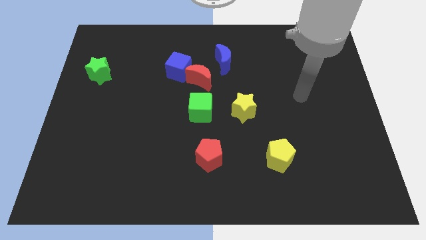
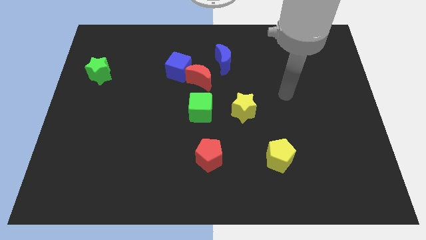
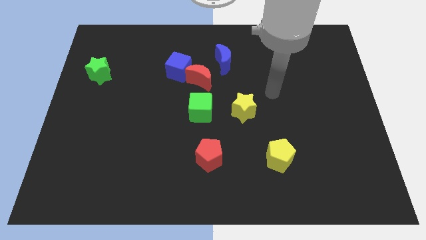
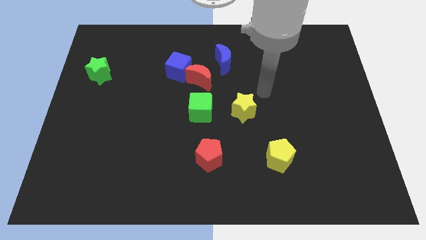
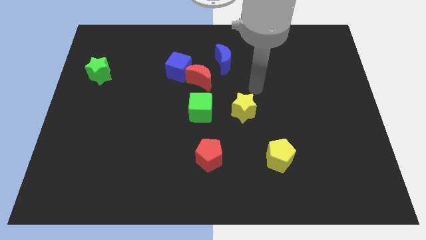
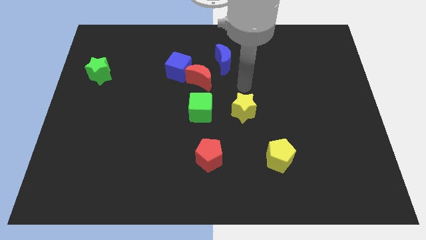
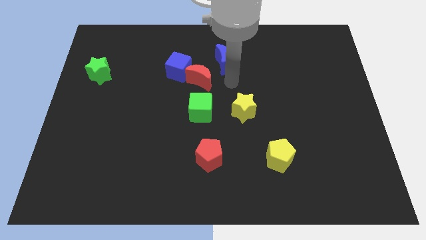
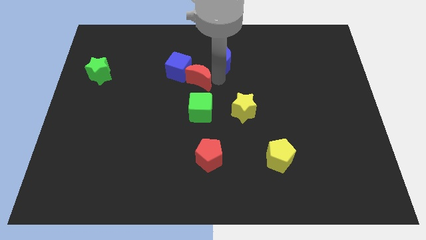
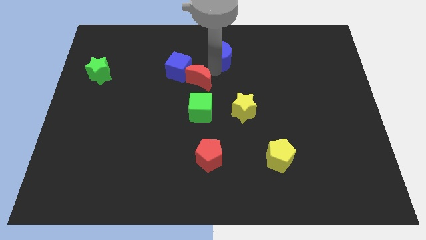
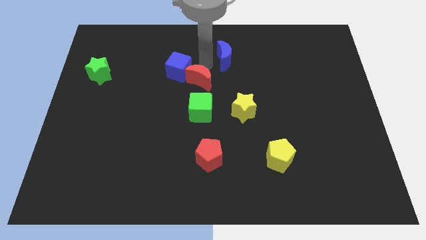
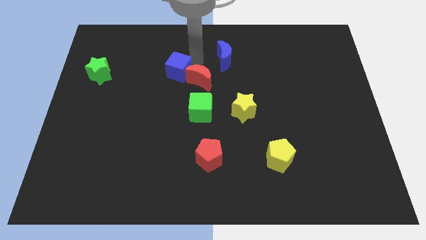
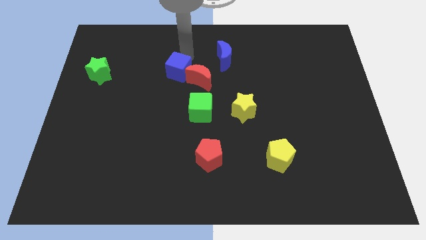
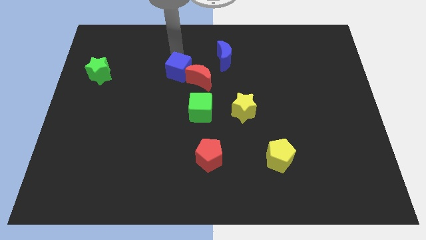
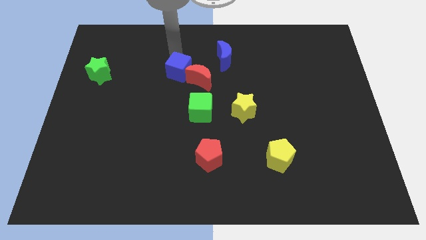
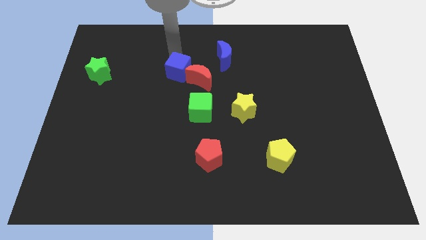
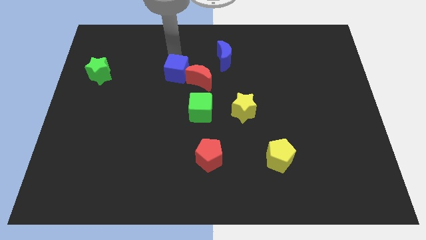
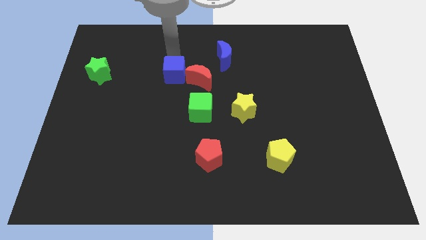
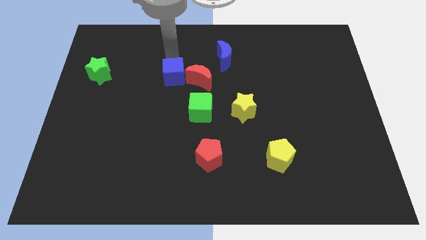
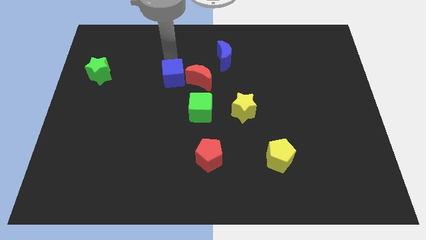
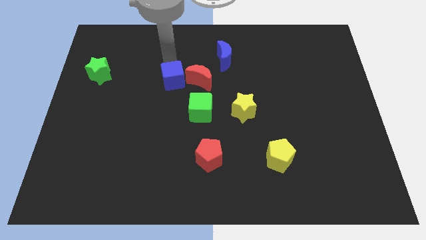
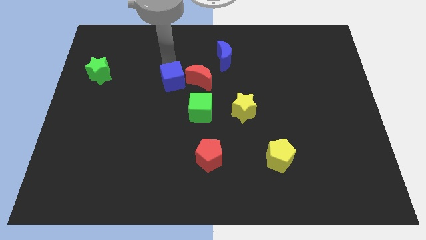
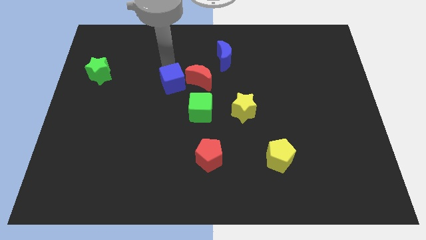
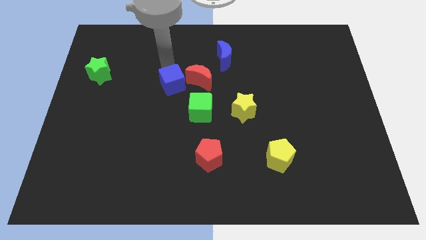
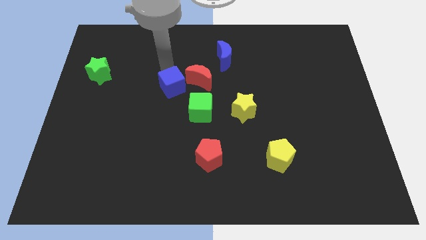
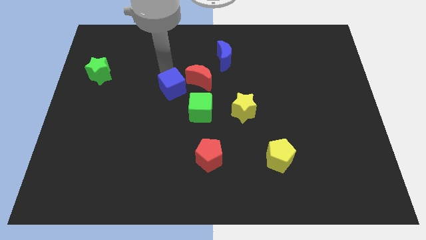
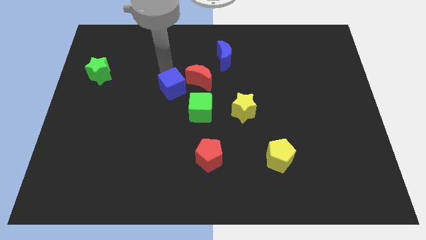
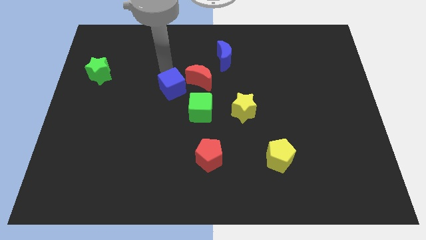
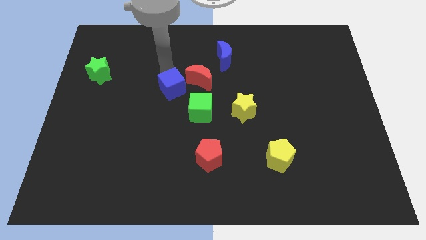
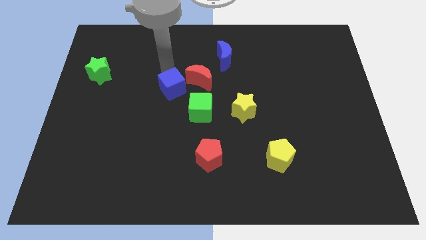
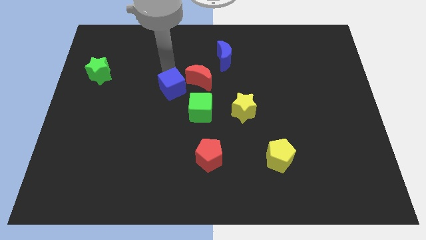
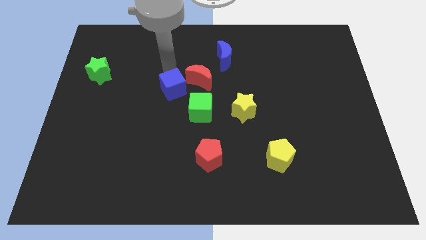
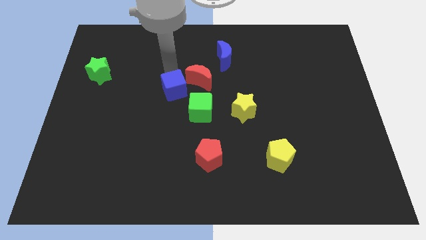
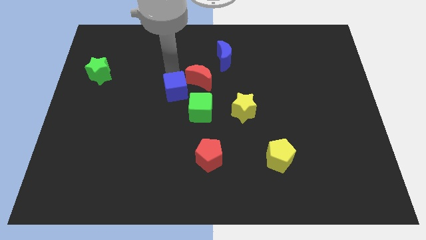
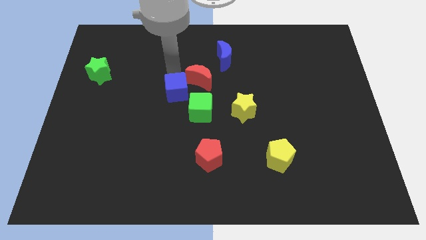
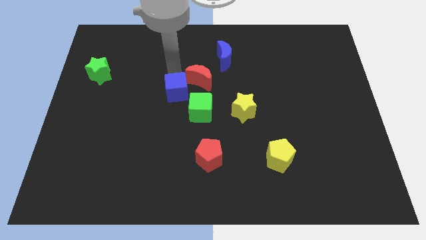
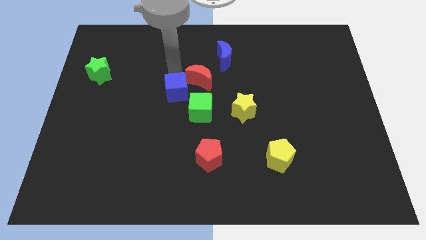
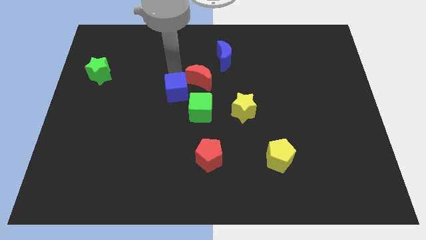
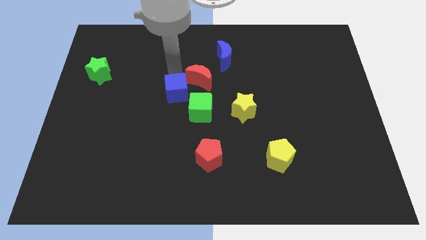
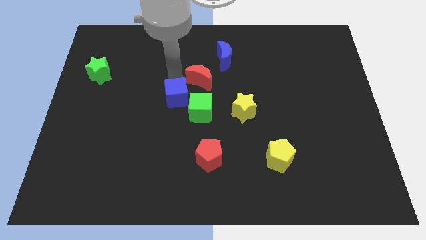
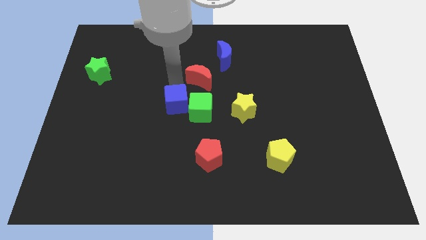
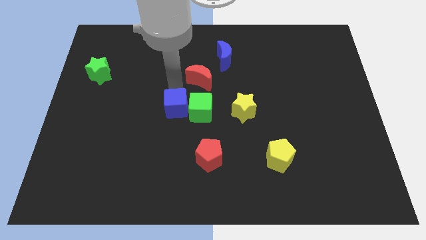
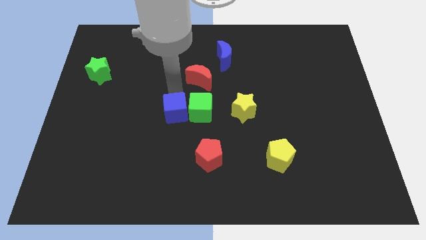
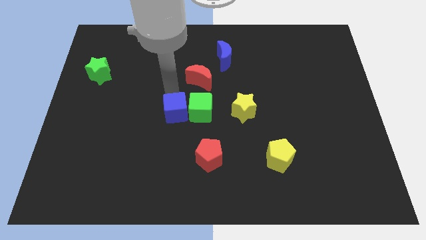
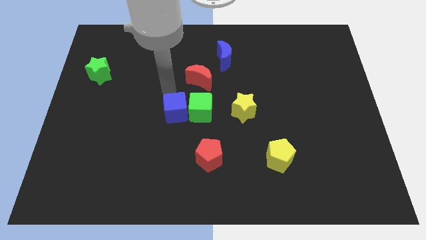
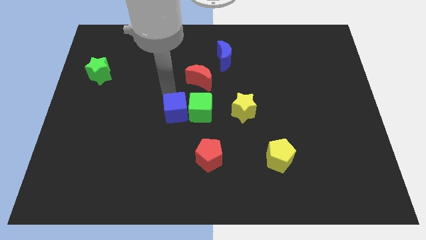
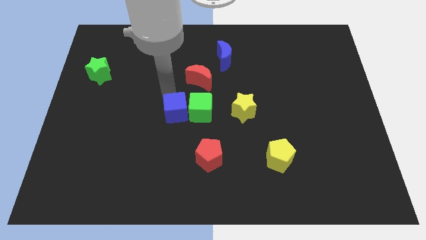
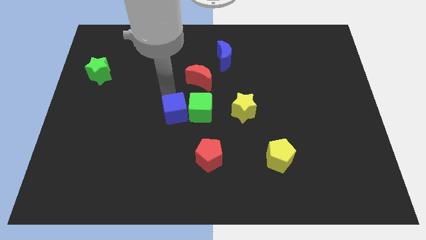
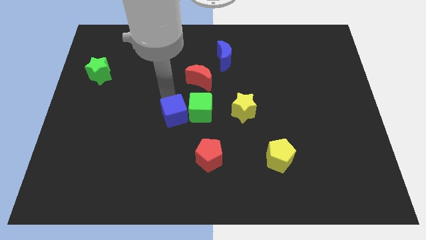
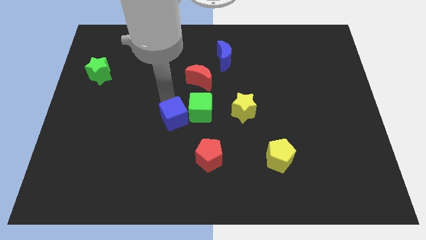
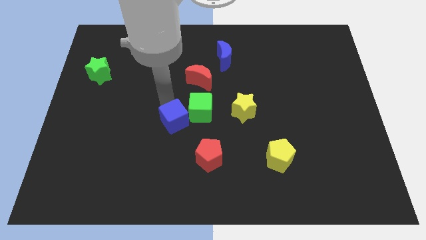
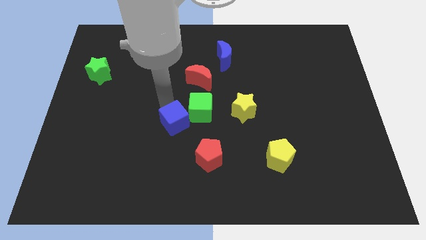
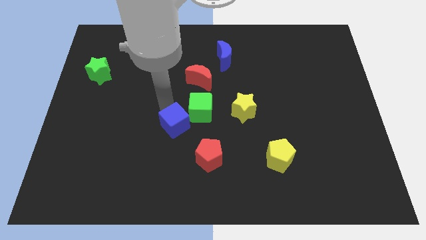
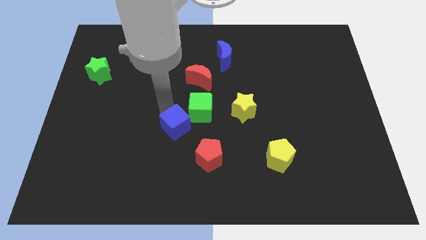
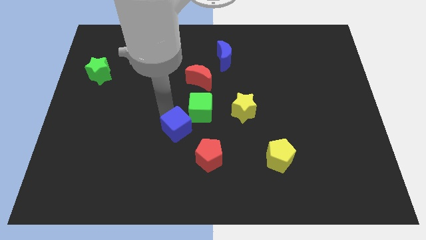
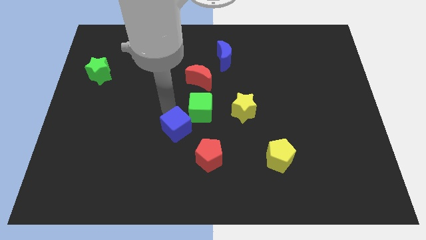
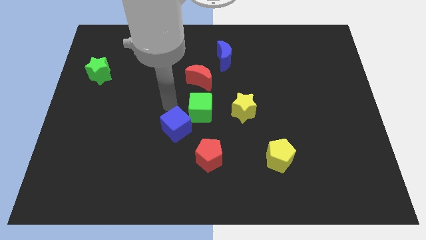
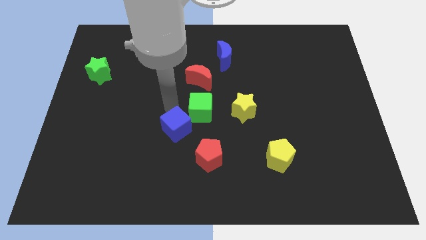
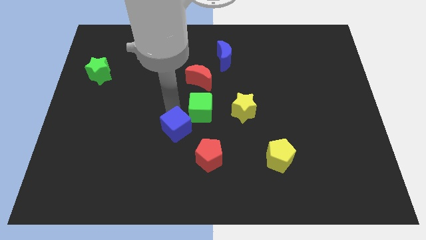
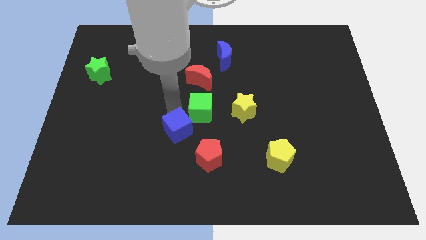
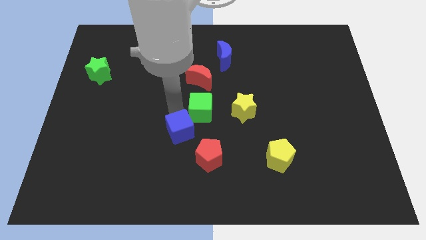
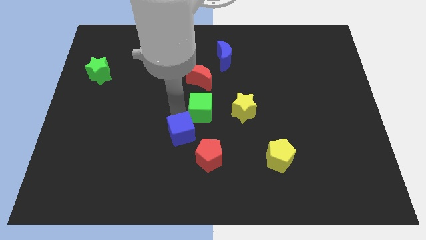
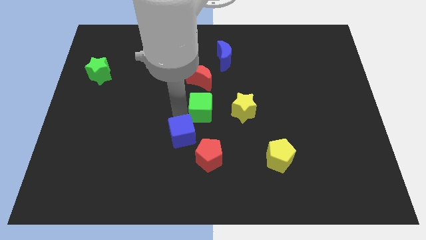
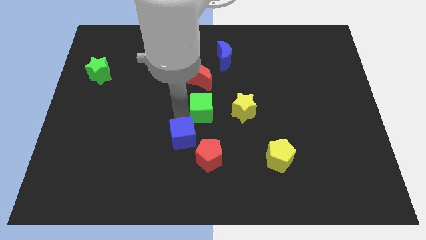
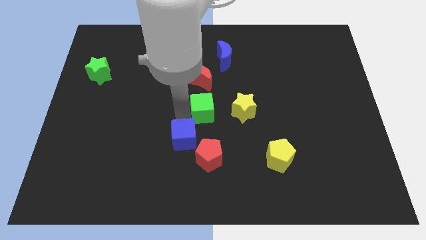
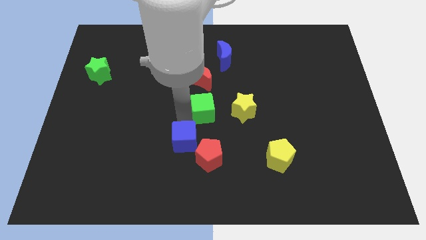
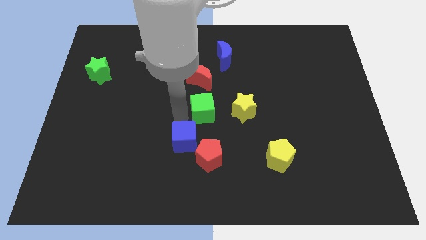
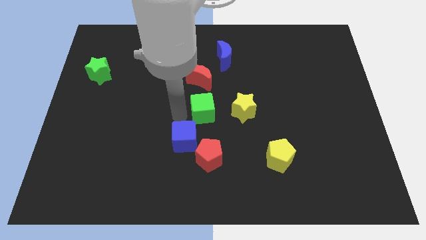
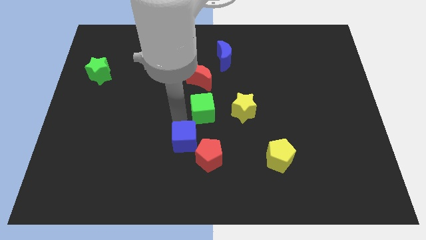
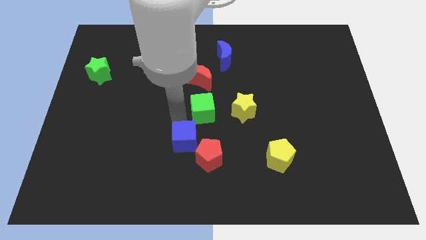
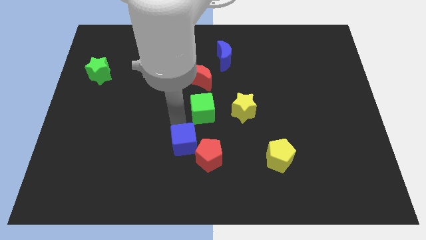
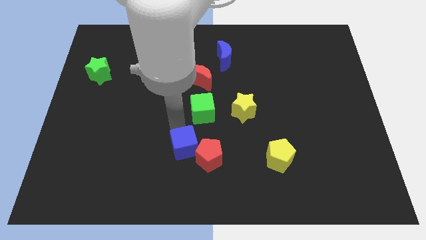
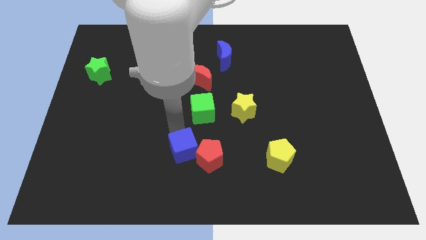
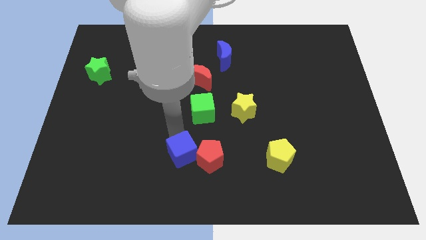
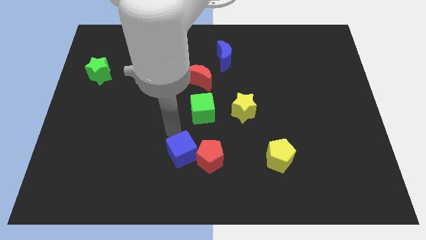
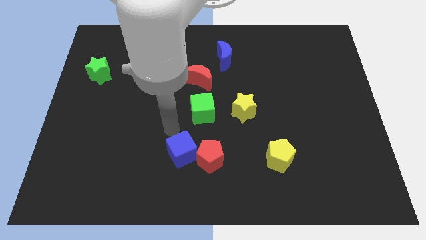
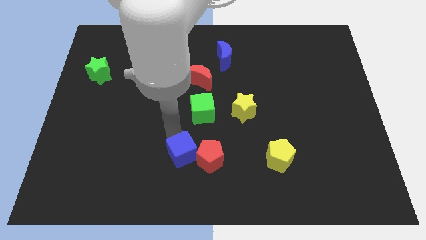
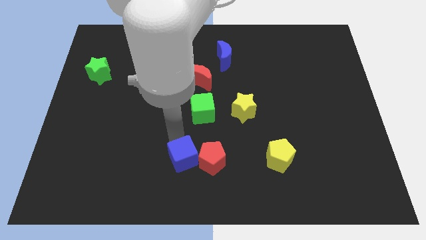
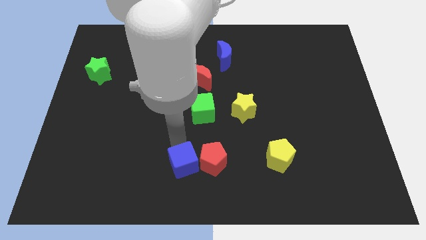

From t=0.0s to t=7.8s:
put the blue cube to the bottom
